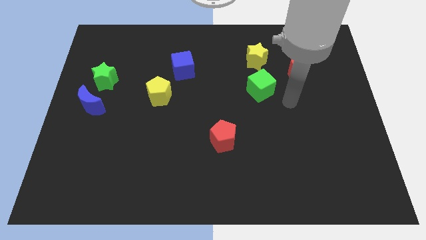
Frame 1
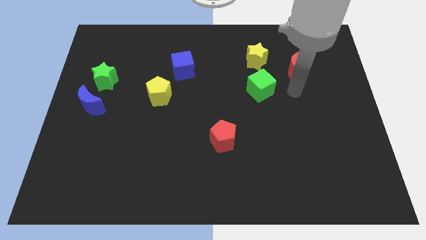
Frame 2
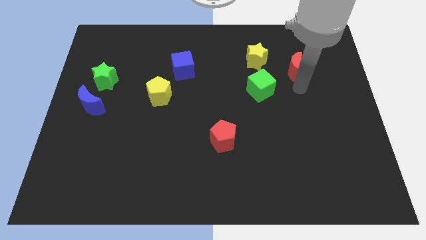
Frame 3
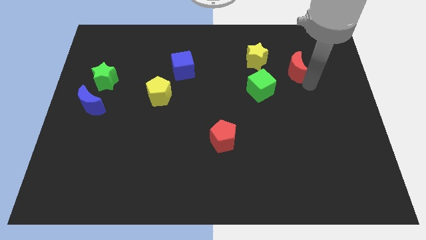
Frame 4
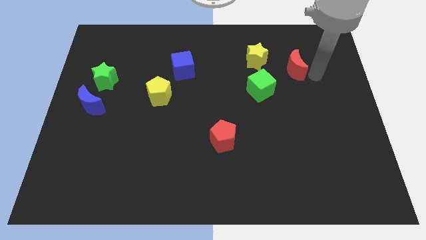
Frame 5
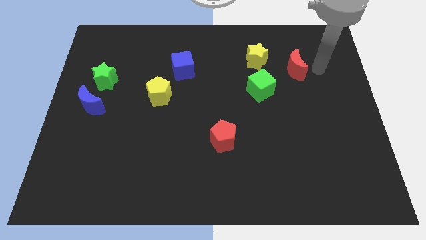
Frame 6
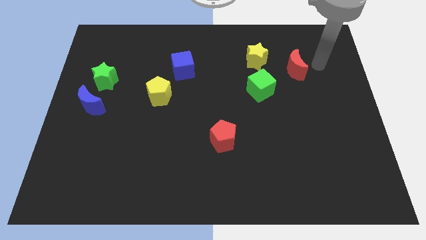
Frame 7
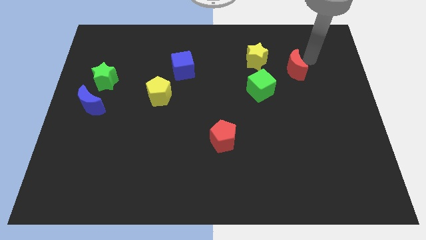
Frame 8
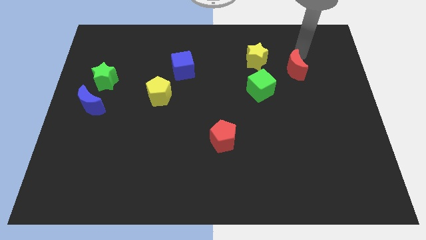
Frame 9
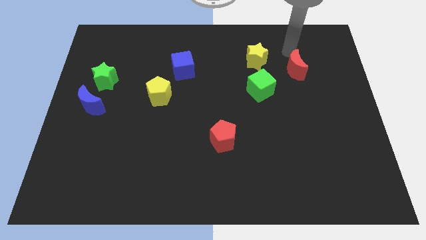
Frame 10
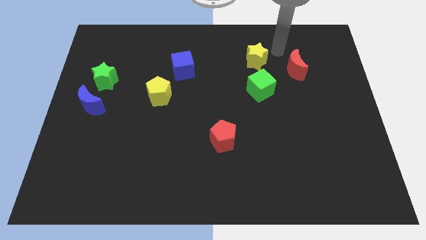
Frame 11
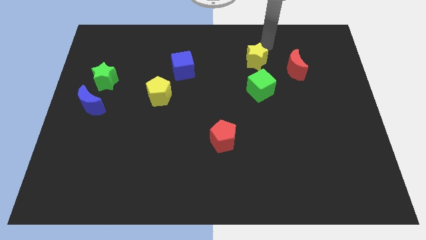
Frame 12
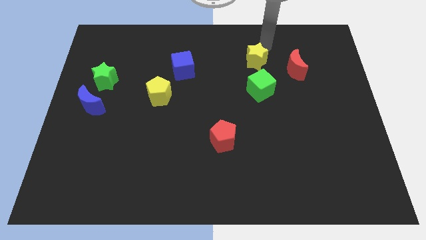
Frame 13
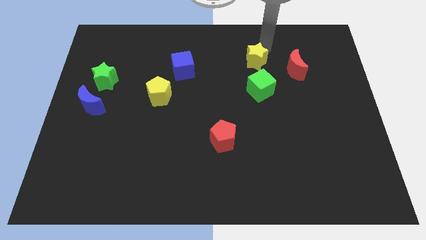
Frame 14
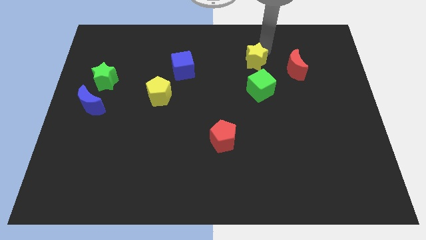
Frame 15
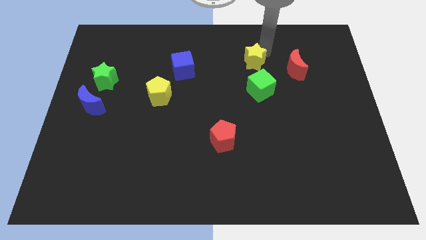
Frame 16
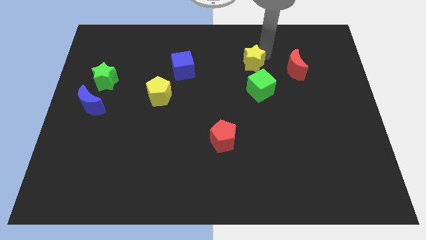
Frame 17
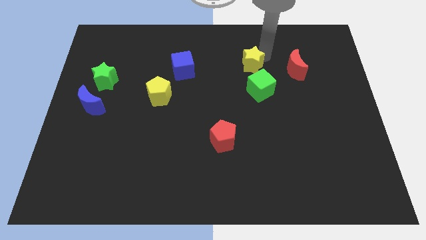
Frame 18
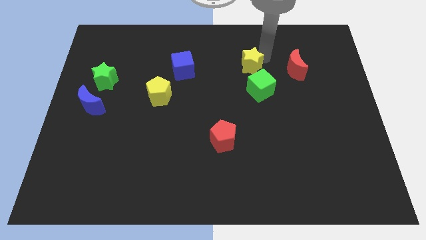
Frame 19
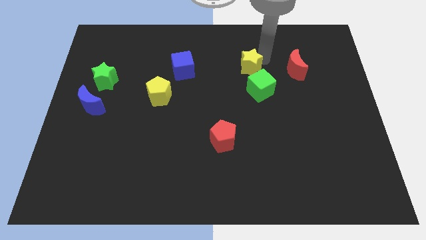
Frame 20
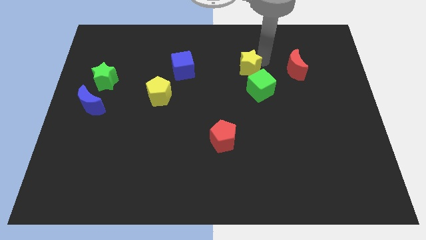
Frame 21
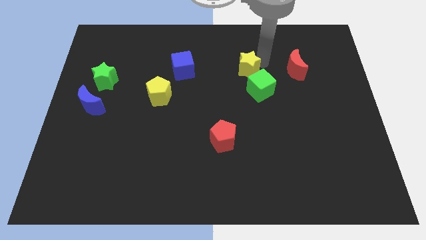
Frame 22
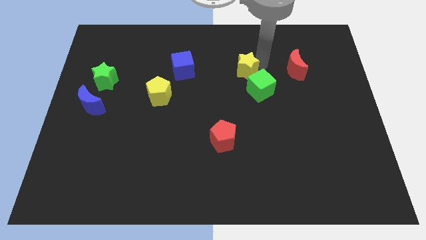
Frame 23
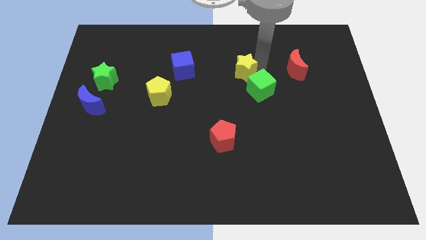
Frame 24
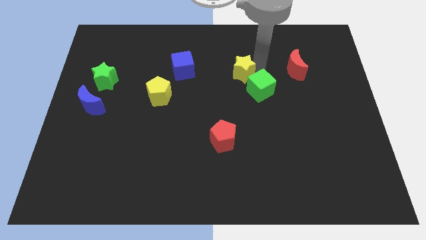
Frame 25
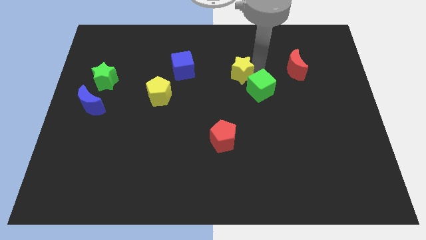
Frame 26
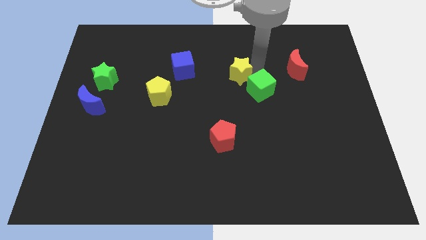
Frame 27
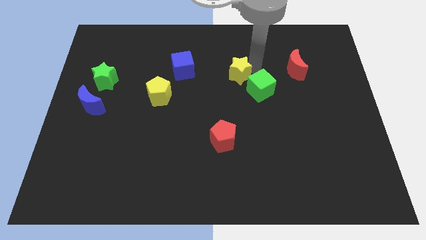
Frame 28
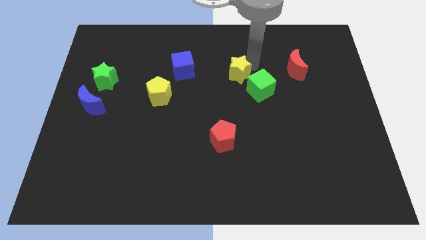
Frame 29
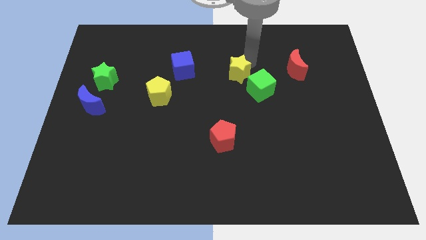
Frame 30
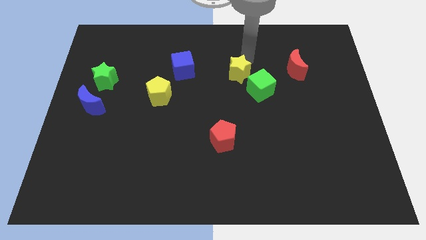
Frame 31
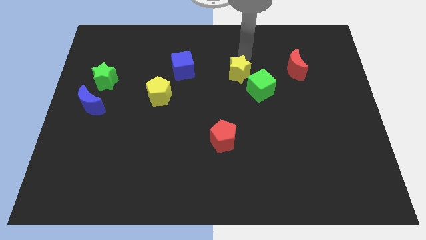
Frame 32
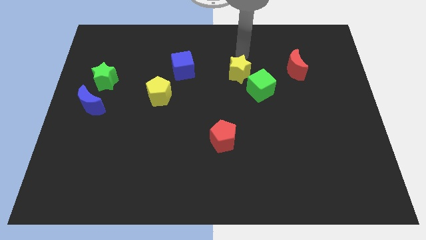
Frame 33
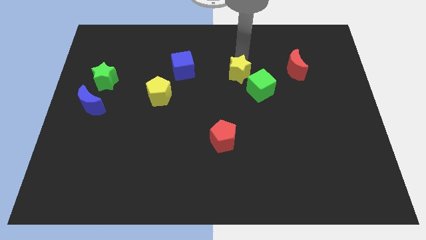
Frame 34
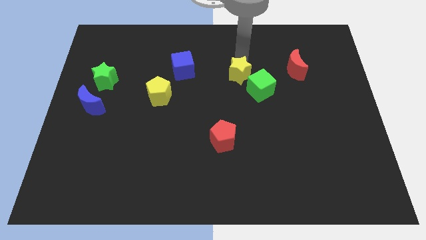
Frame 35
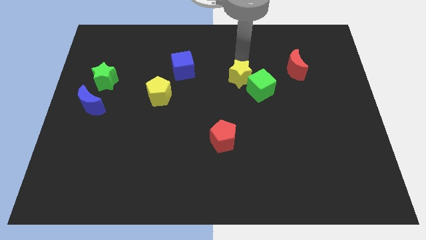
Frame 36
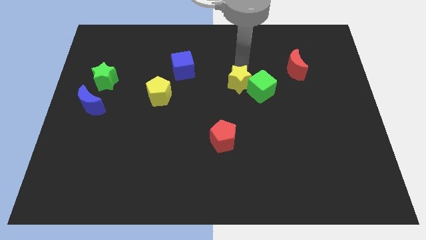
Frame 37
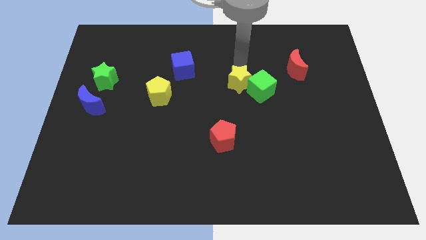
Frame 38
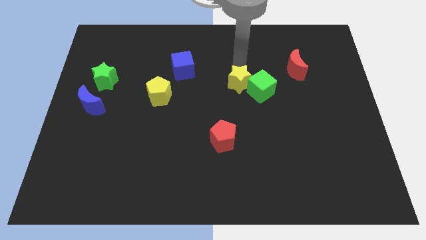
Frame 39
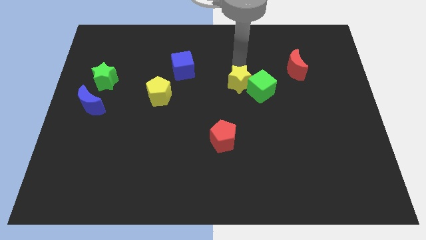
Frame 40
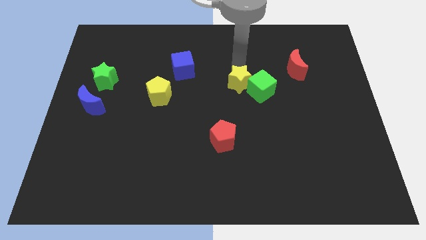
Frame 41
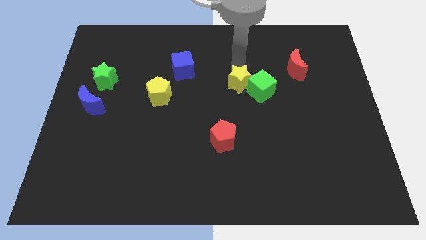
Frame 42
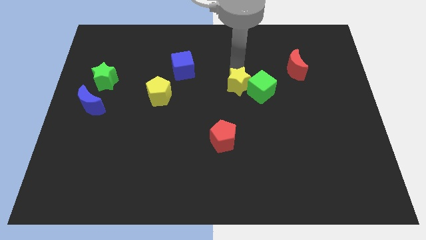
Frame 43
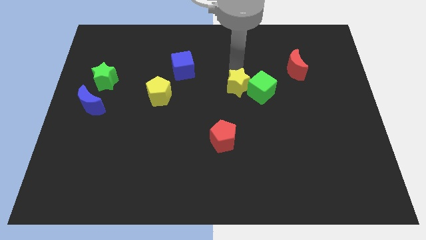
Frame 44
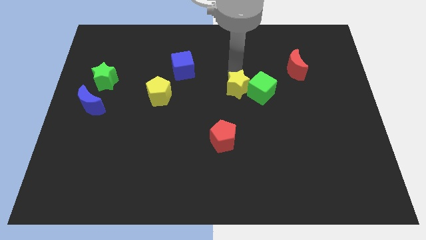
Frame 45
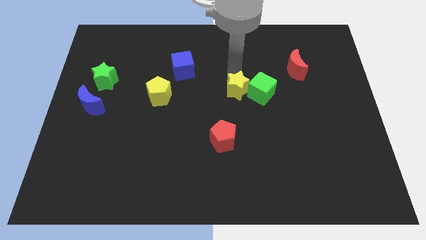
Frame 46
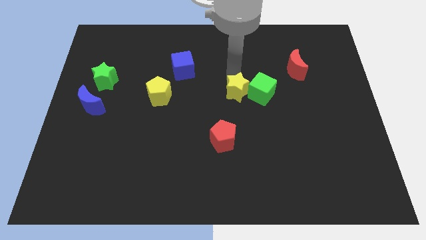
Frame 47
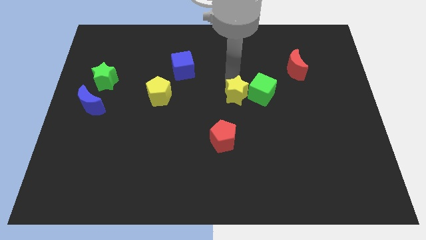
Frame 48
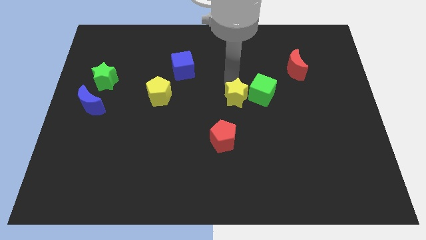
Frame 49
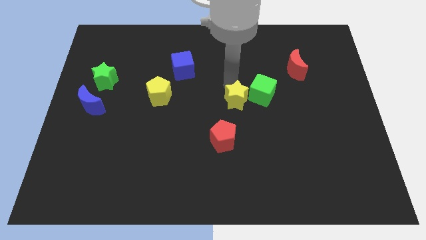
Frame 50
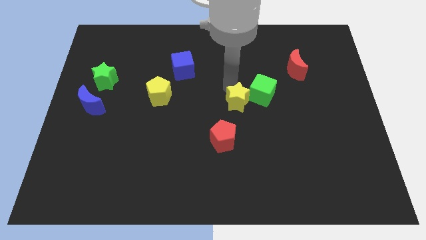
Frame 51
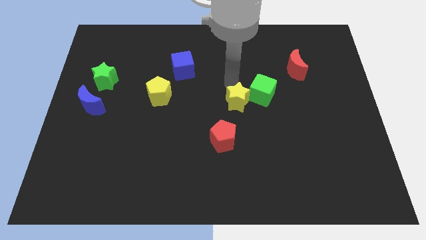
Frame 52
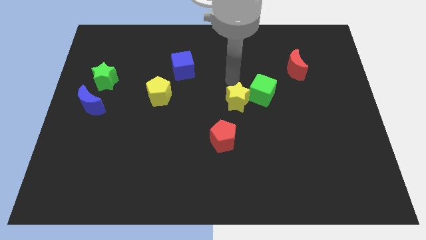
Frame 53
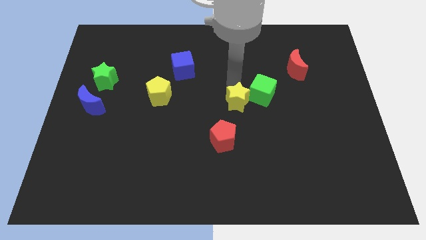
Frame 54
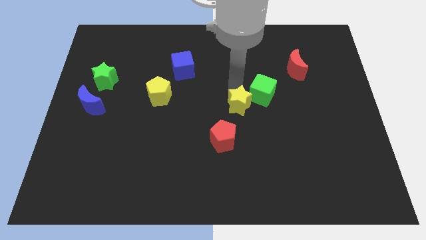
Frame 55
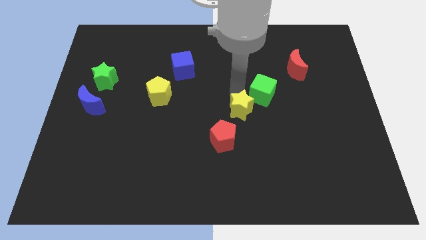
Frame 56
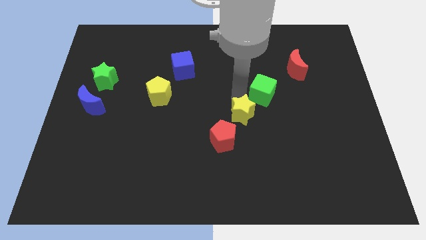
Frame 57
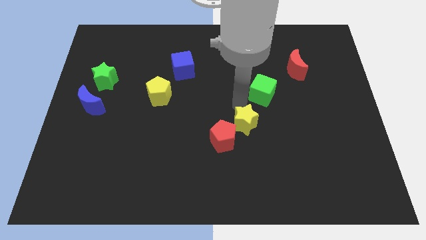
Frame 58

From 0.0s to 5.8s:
move the yellow star down

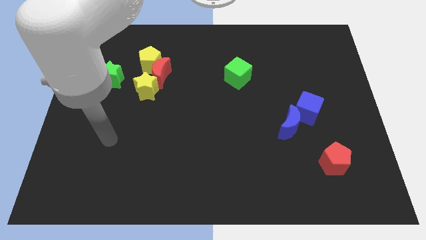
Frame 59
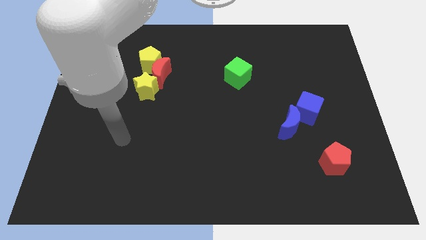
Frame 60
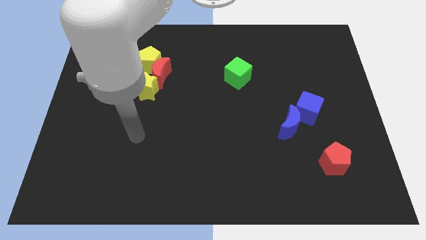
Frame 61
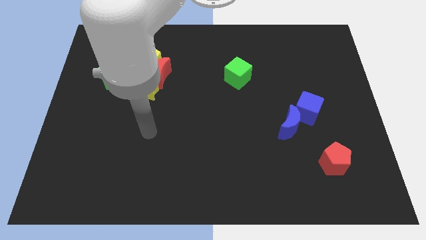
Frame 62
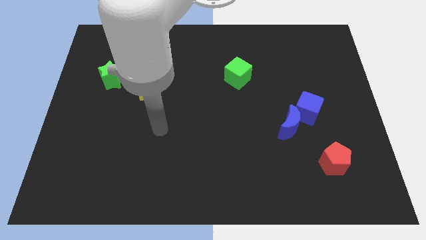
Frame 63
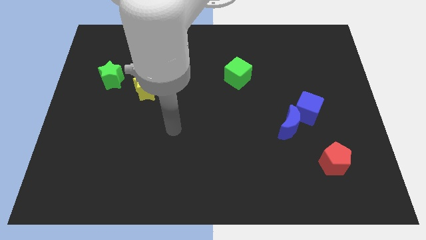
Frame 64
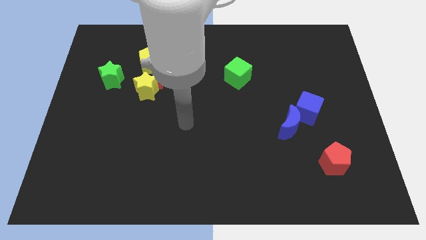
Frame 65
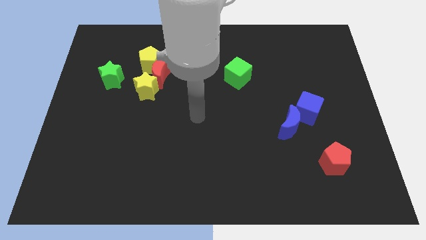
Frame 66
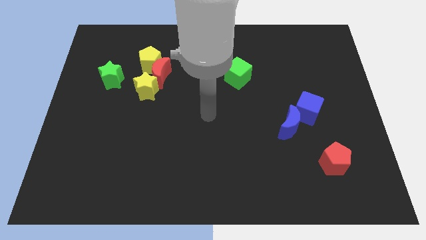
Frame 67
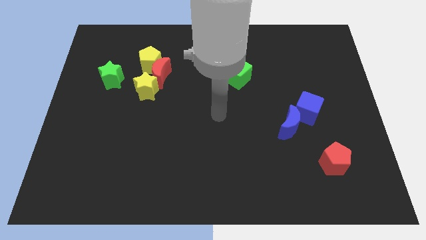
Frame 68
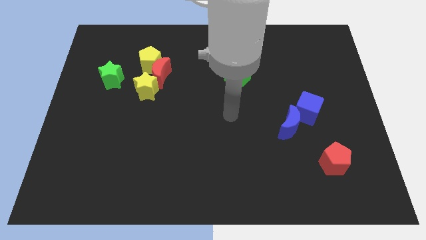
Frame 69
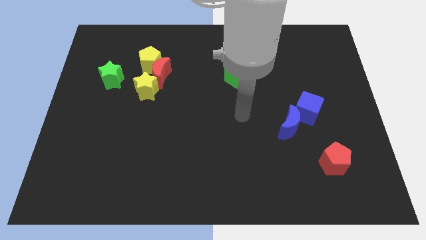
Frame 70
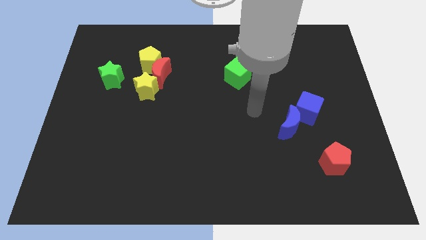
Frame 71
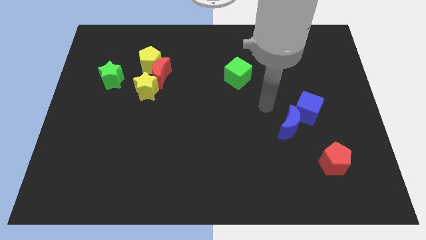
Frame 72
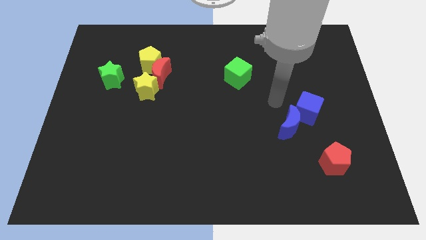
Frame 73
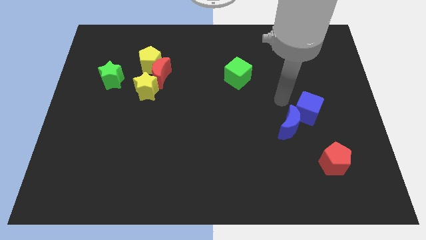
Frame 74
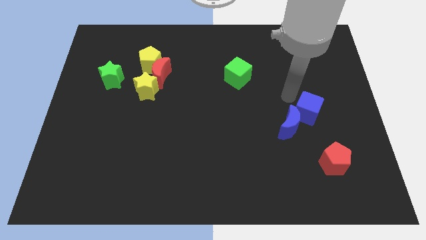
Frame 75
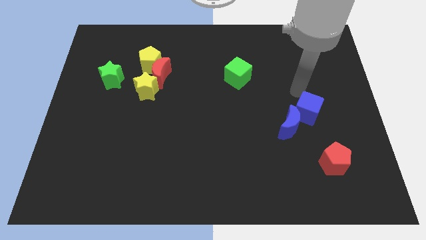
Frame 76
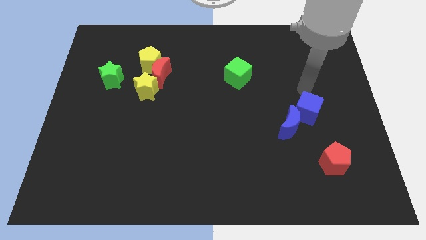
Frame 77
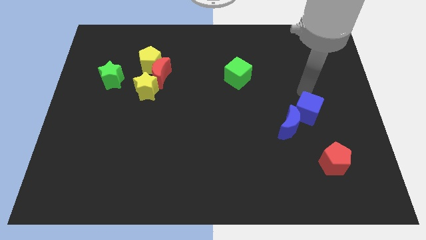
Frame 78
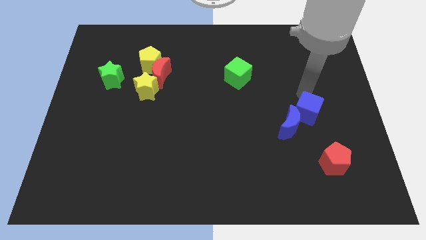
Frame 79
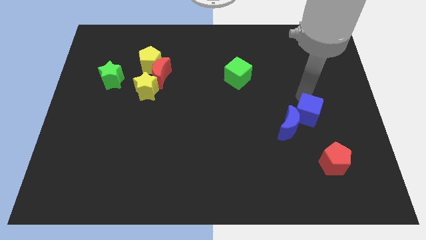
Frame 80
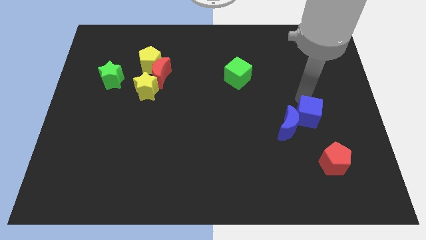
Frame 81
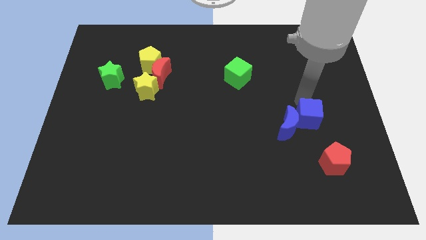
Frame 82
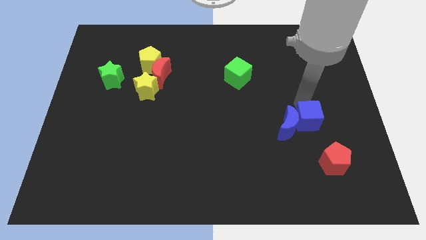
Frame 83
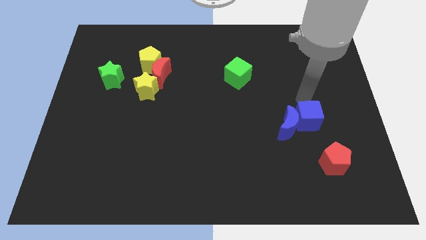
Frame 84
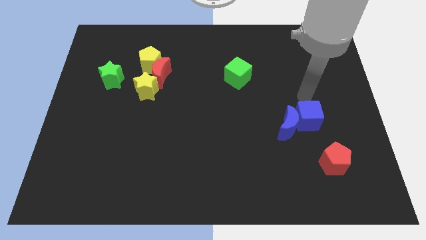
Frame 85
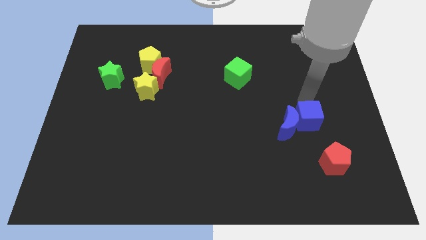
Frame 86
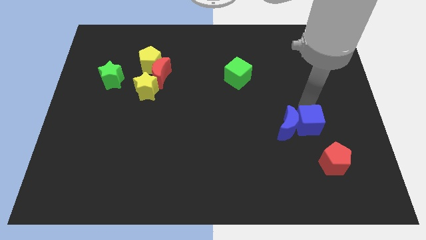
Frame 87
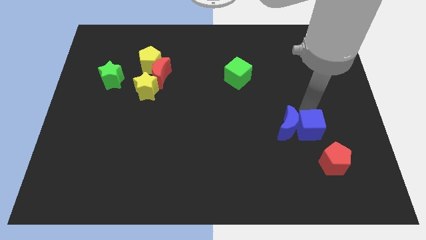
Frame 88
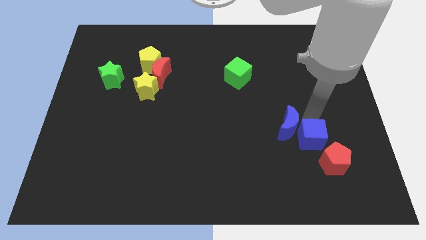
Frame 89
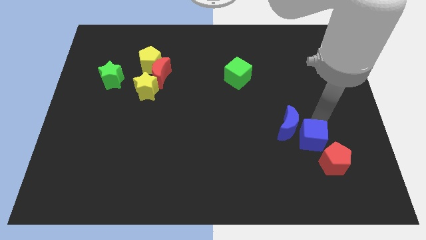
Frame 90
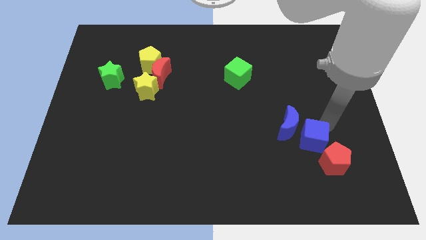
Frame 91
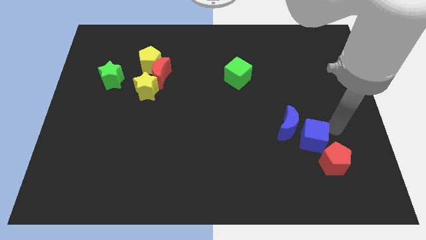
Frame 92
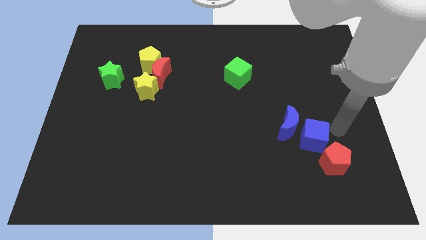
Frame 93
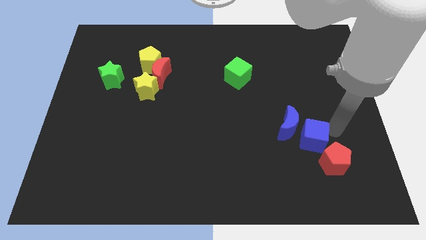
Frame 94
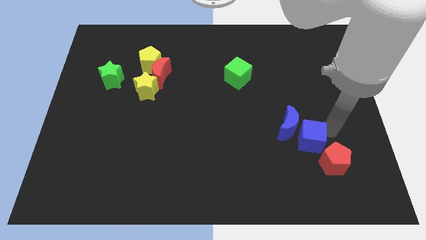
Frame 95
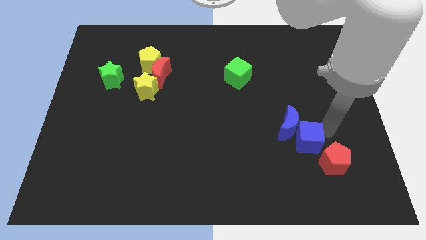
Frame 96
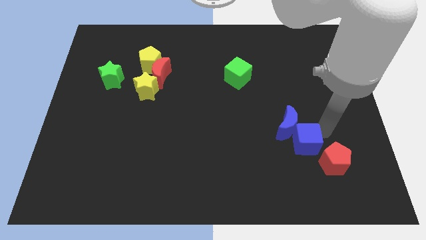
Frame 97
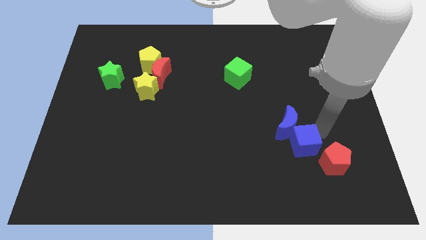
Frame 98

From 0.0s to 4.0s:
slide the blue cube somewhat downwards and then left
